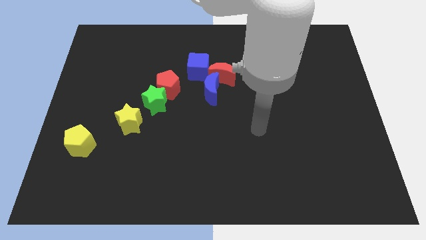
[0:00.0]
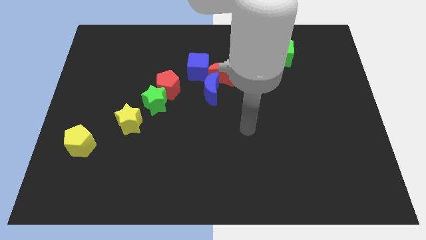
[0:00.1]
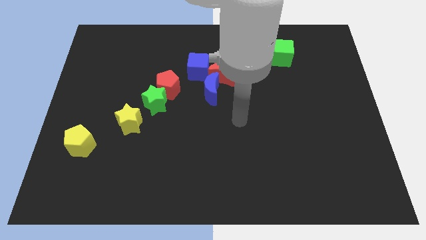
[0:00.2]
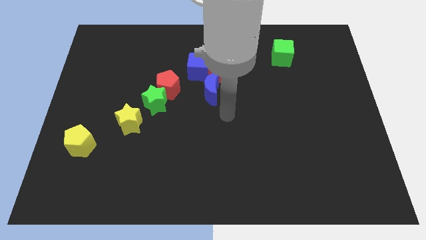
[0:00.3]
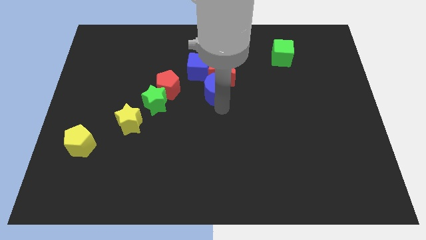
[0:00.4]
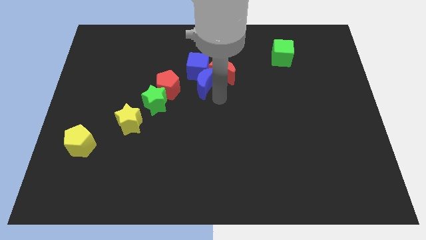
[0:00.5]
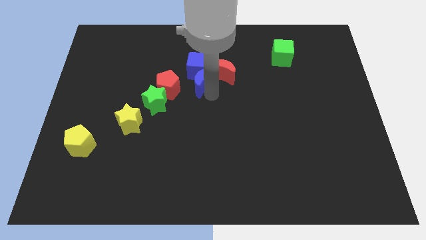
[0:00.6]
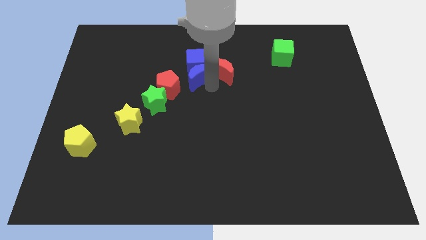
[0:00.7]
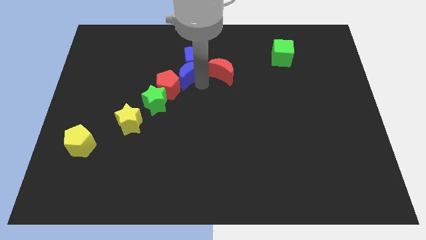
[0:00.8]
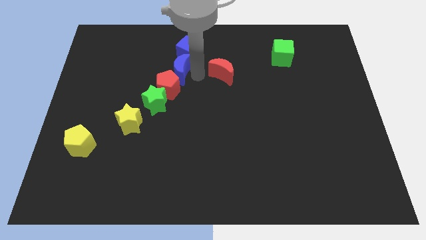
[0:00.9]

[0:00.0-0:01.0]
move the red moon away from the blue moon and blue cube

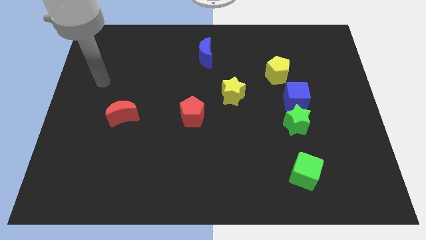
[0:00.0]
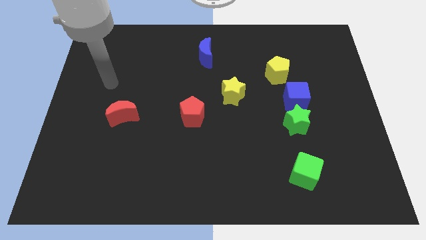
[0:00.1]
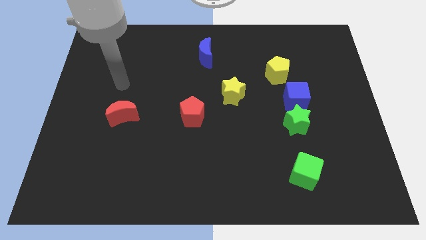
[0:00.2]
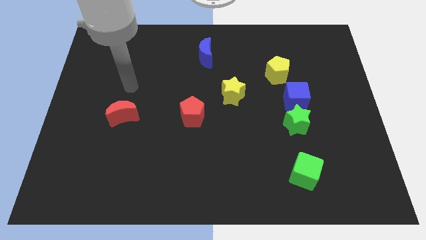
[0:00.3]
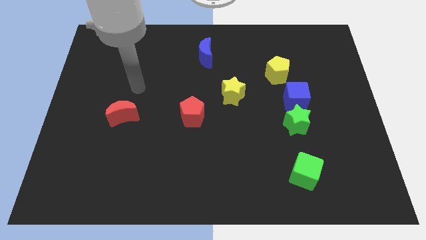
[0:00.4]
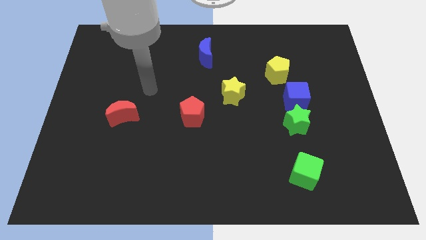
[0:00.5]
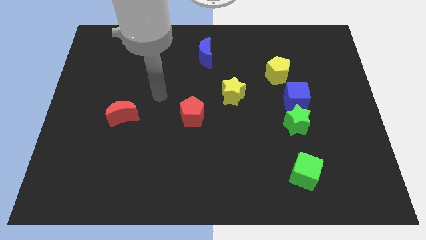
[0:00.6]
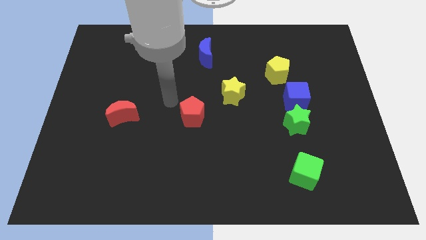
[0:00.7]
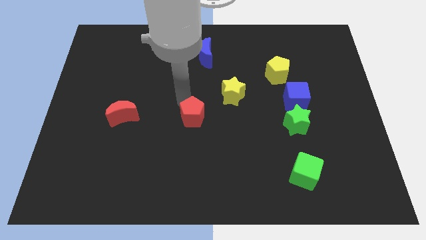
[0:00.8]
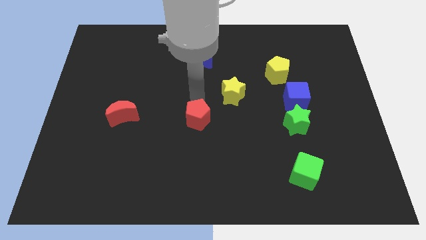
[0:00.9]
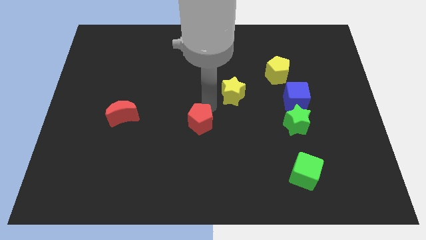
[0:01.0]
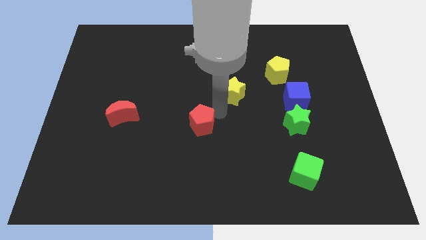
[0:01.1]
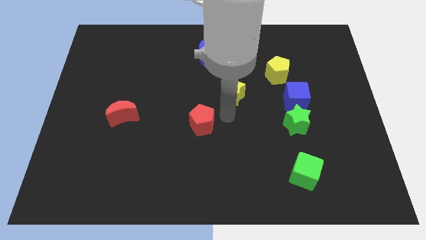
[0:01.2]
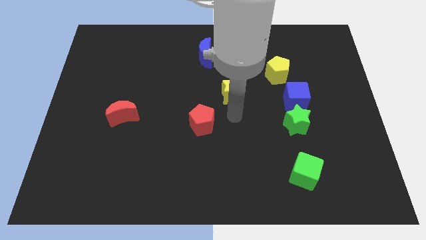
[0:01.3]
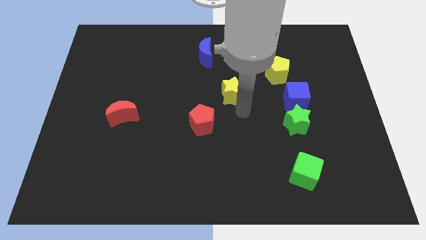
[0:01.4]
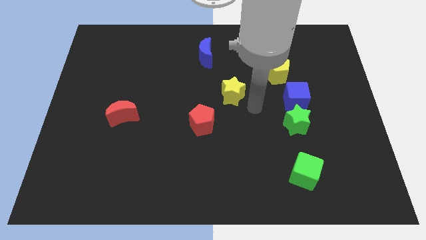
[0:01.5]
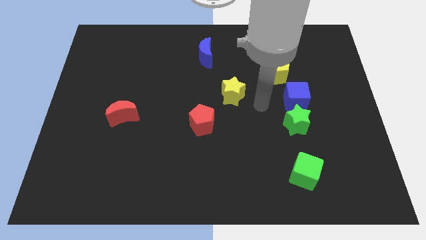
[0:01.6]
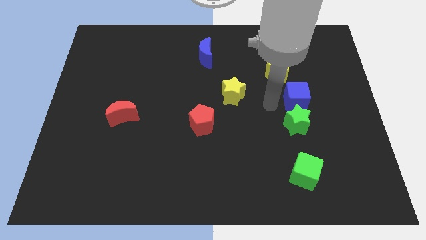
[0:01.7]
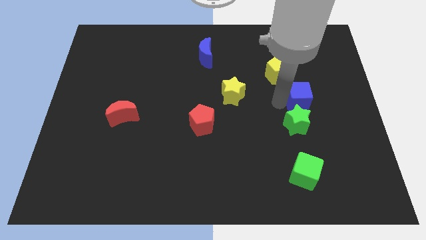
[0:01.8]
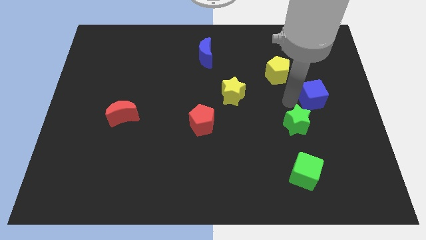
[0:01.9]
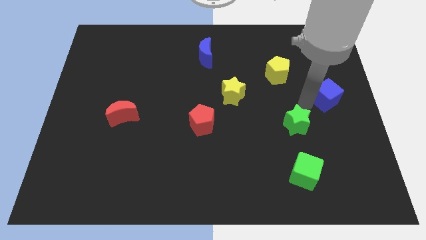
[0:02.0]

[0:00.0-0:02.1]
pull the green star apart from the blue cube

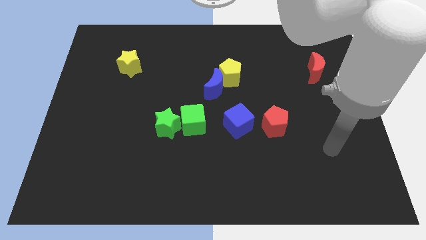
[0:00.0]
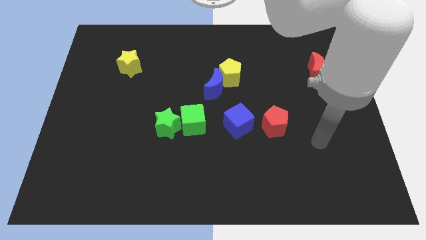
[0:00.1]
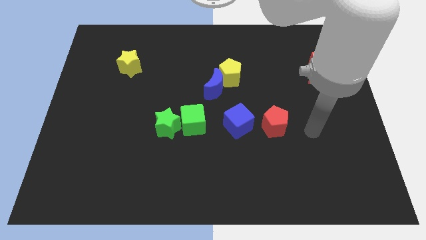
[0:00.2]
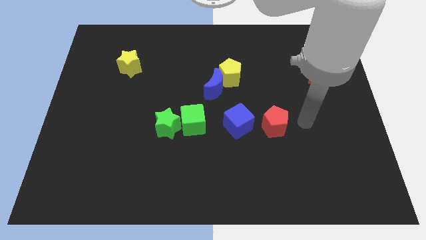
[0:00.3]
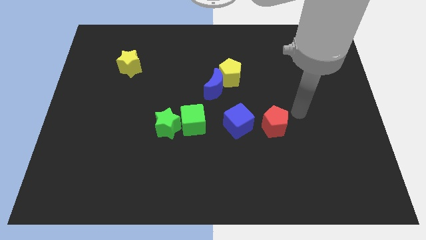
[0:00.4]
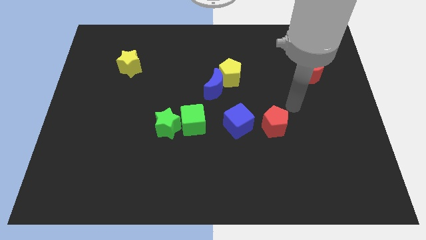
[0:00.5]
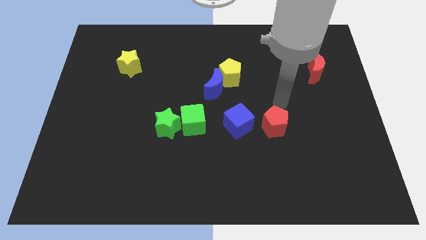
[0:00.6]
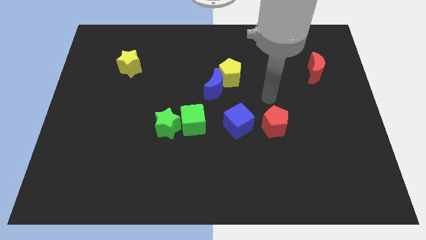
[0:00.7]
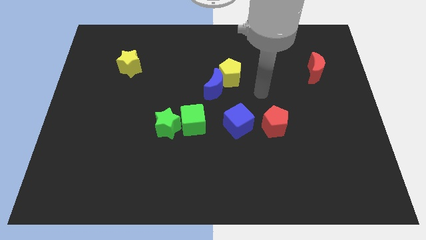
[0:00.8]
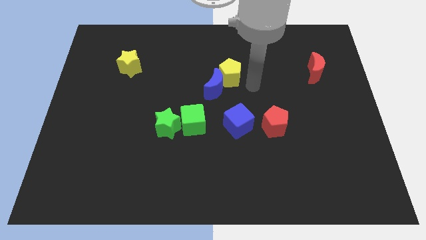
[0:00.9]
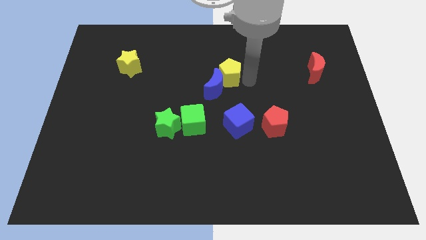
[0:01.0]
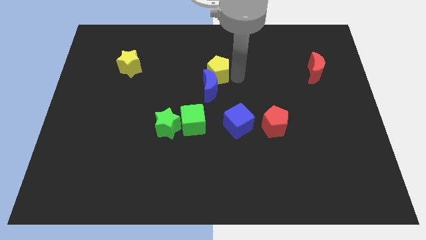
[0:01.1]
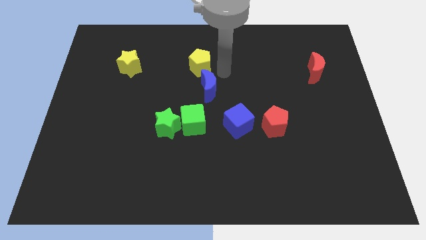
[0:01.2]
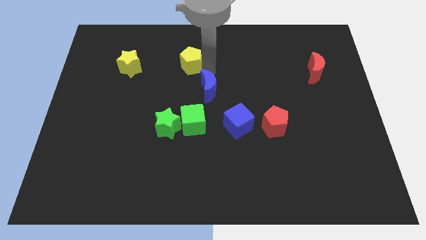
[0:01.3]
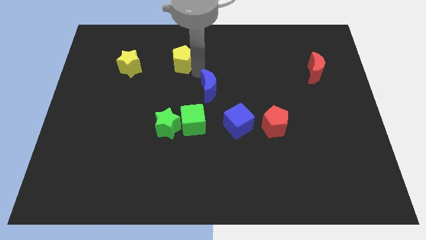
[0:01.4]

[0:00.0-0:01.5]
pull the blue moon apart from the yellow pentagon

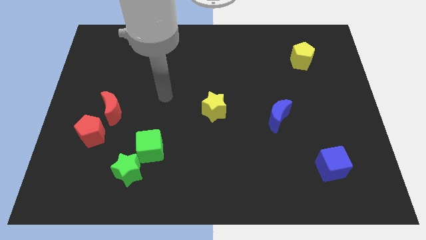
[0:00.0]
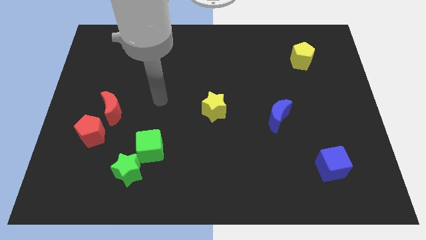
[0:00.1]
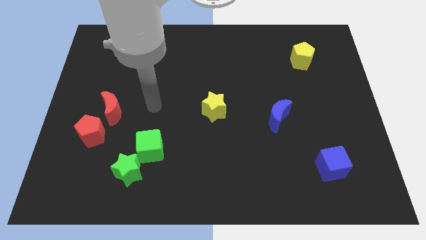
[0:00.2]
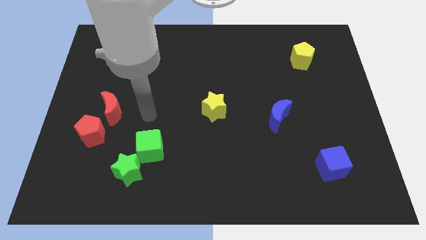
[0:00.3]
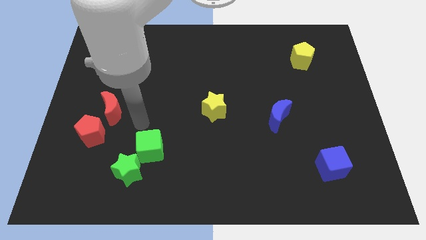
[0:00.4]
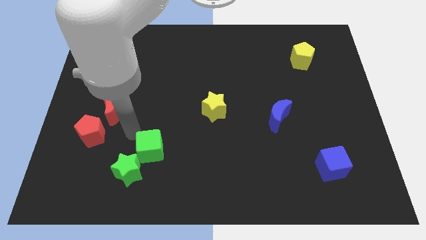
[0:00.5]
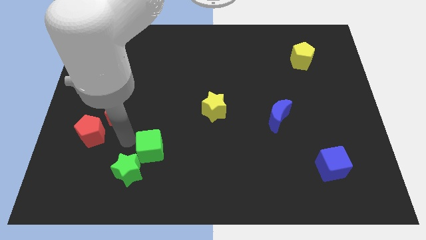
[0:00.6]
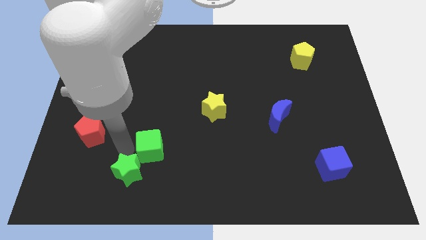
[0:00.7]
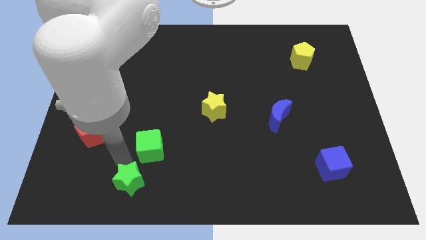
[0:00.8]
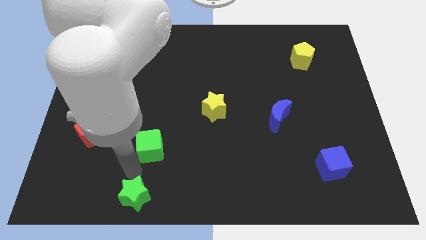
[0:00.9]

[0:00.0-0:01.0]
move the green cube away from the green star

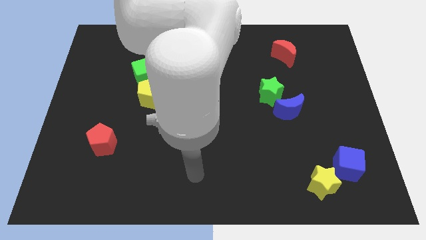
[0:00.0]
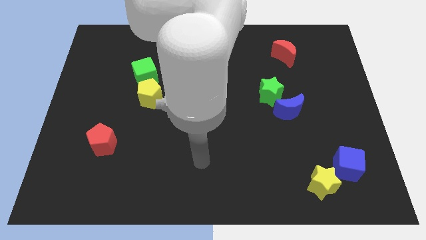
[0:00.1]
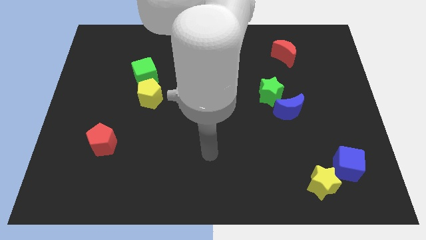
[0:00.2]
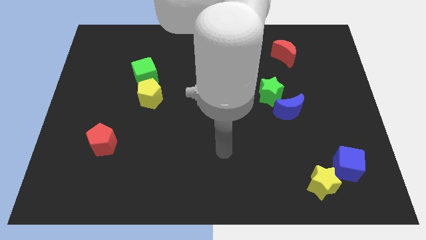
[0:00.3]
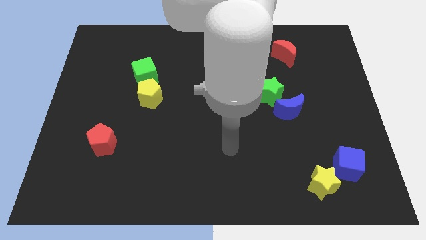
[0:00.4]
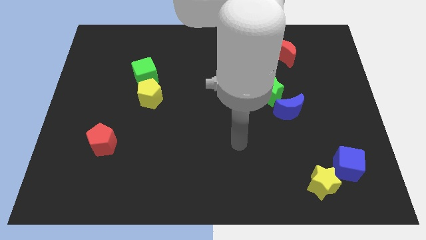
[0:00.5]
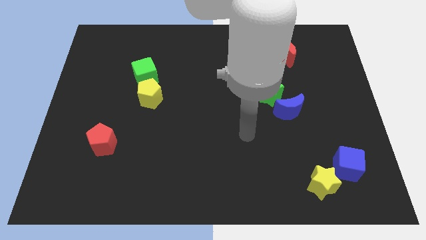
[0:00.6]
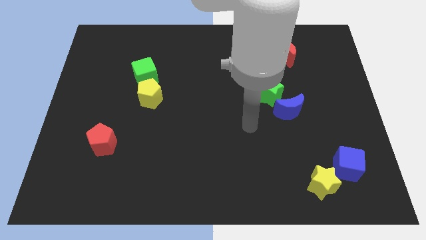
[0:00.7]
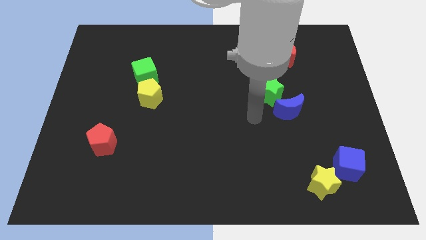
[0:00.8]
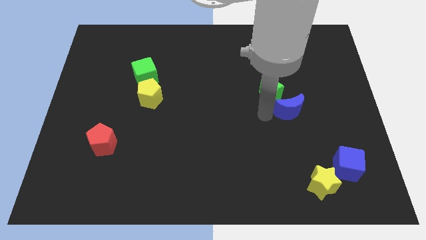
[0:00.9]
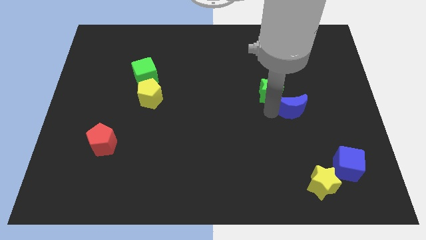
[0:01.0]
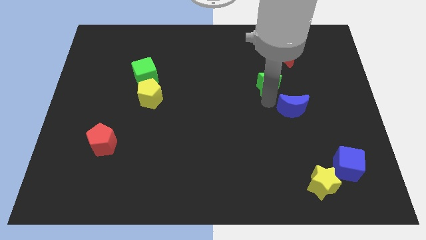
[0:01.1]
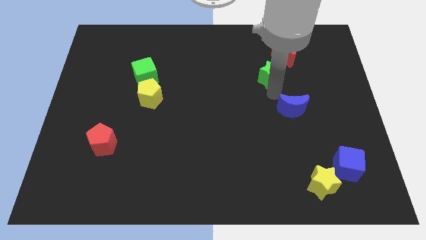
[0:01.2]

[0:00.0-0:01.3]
pull the blue moon apart from the green star

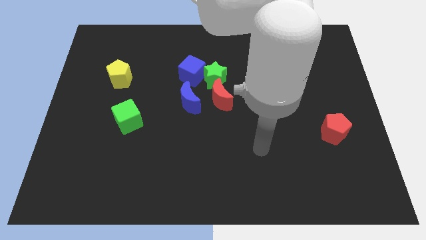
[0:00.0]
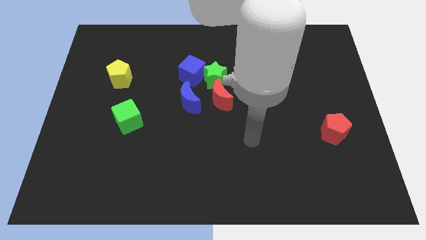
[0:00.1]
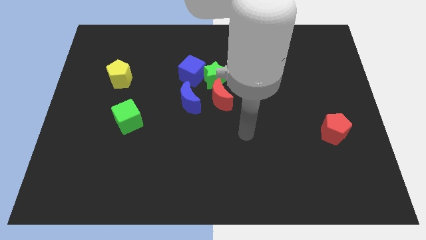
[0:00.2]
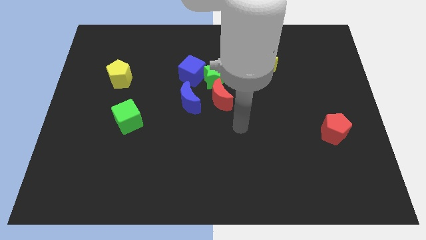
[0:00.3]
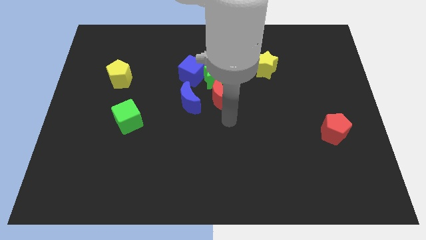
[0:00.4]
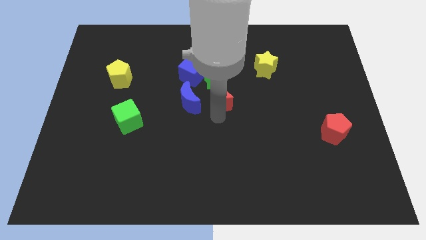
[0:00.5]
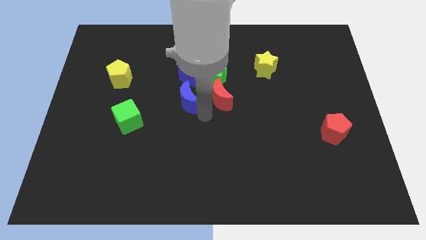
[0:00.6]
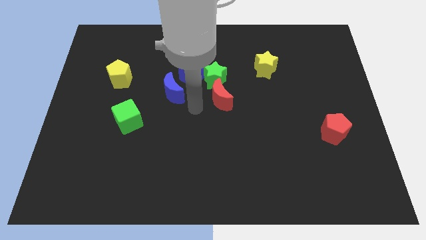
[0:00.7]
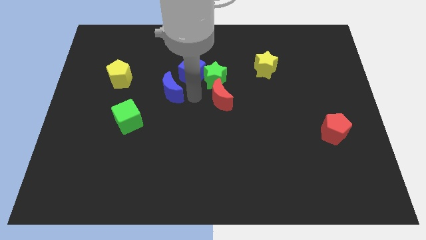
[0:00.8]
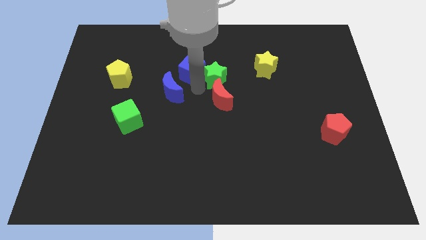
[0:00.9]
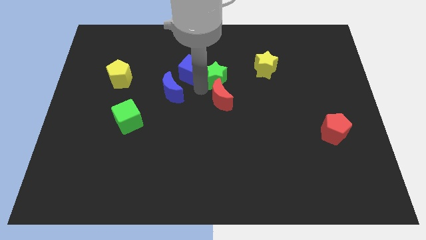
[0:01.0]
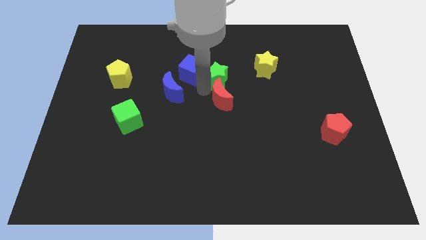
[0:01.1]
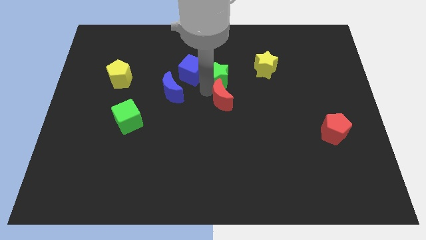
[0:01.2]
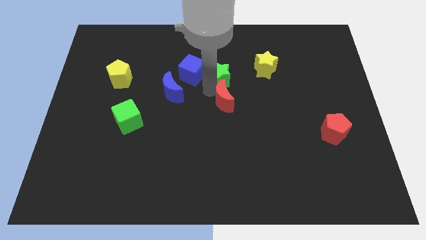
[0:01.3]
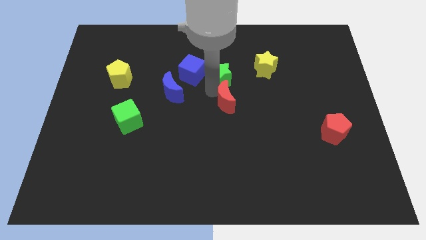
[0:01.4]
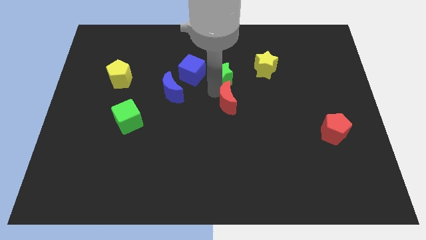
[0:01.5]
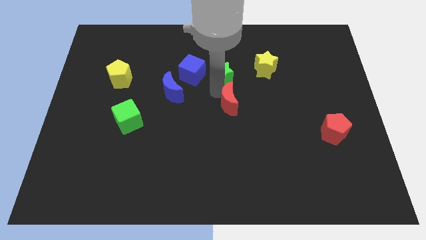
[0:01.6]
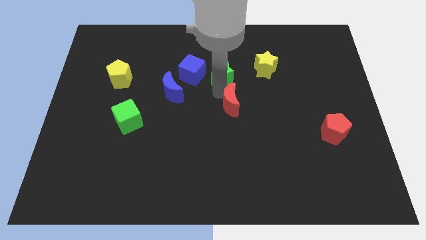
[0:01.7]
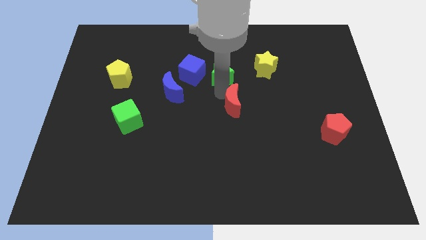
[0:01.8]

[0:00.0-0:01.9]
pull the red moon apart from the green star and blue moon

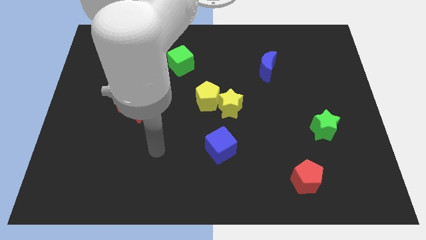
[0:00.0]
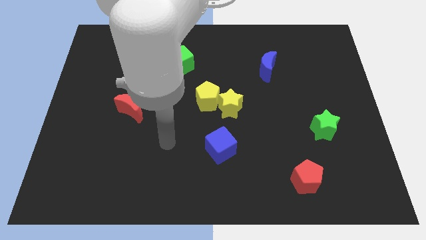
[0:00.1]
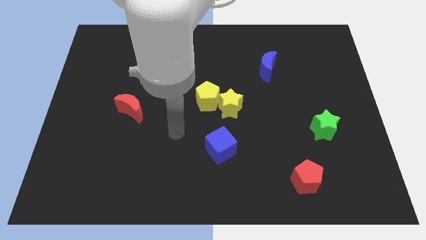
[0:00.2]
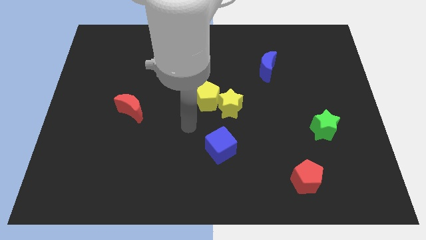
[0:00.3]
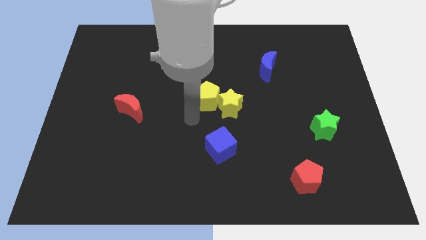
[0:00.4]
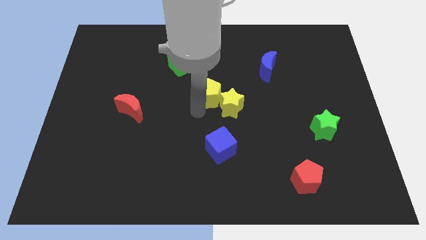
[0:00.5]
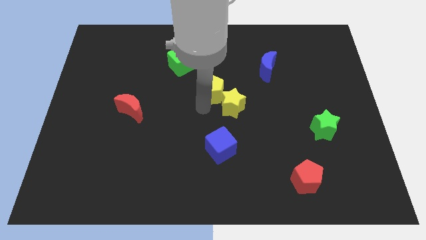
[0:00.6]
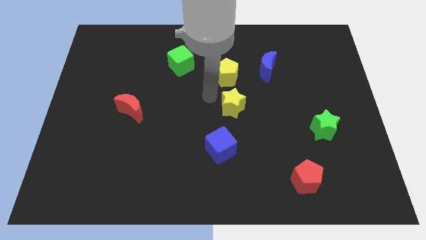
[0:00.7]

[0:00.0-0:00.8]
move the yellow star away from the yellow pentagon
